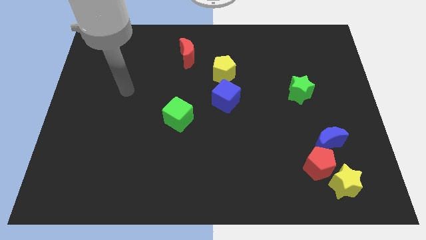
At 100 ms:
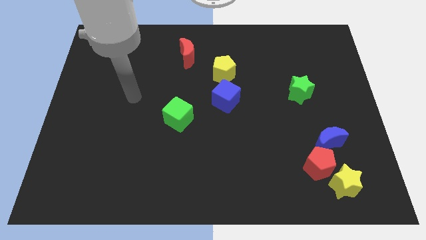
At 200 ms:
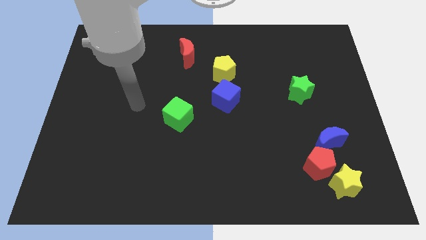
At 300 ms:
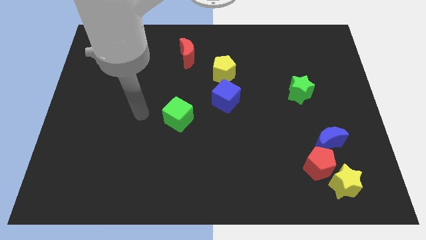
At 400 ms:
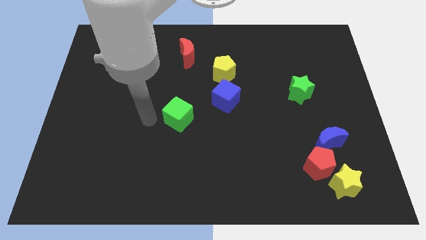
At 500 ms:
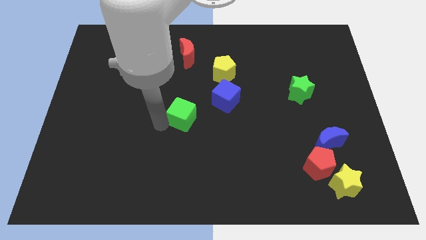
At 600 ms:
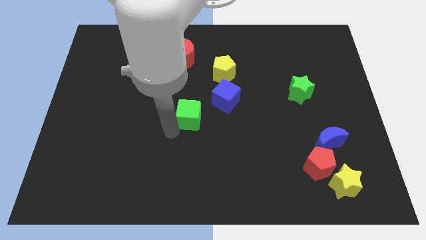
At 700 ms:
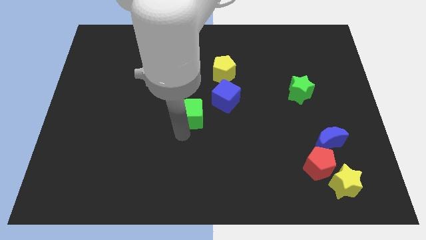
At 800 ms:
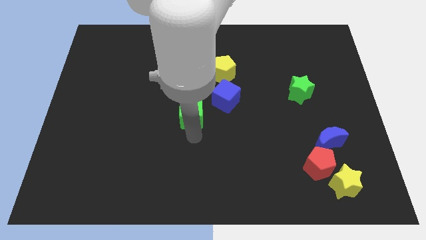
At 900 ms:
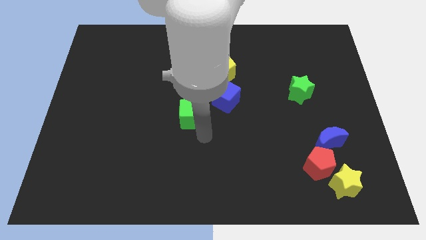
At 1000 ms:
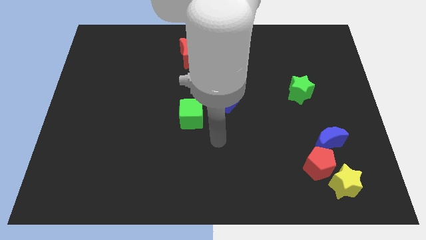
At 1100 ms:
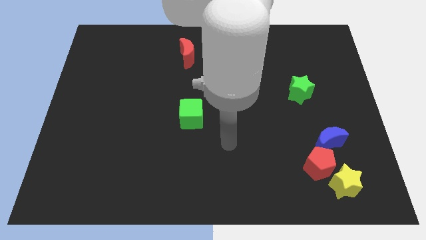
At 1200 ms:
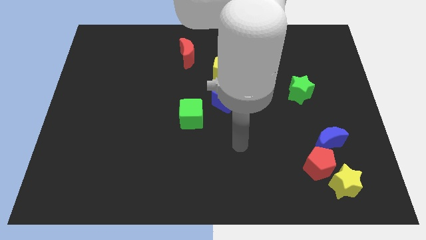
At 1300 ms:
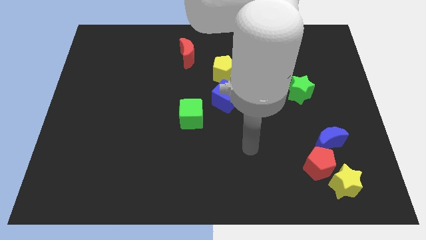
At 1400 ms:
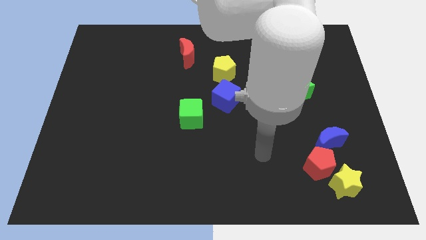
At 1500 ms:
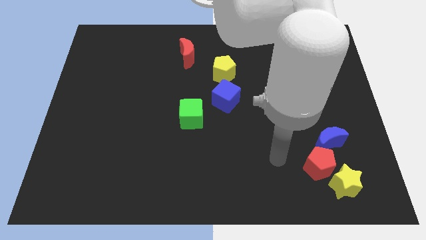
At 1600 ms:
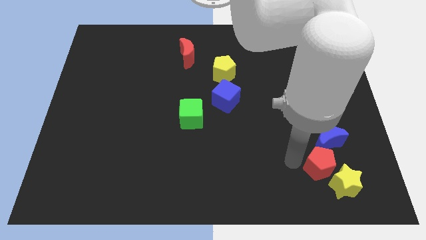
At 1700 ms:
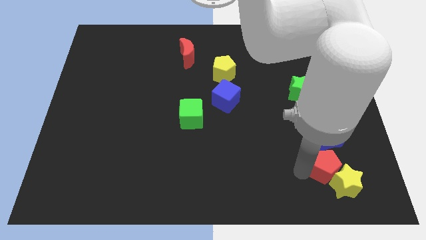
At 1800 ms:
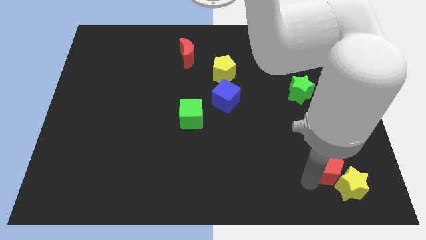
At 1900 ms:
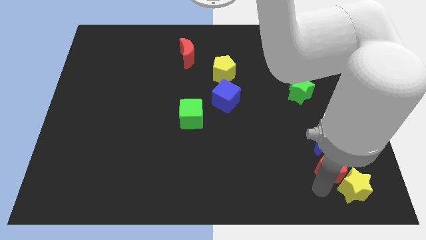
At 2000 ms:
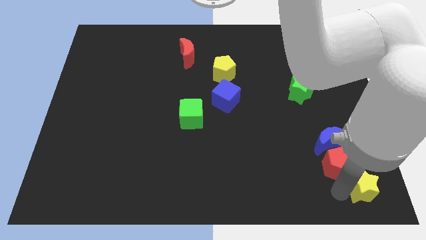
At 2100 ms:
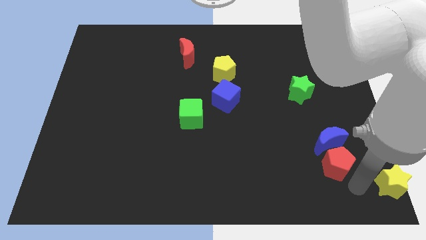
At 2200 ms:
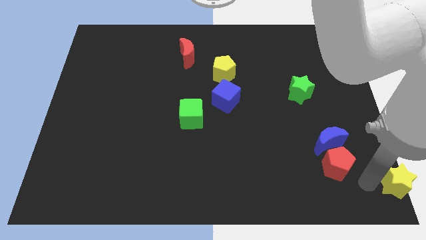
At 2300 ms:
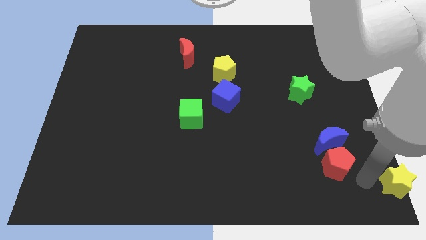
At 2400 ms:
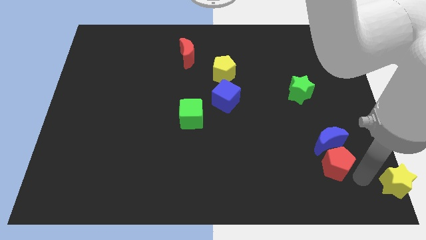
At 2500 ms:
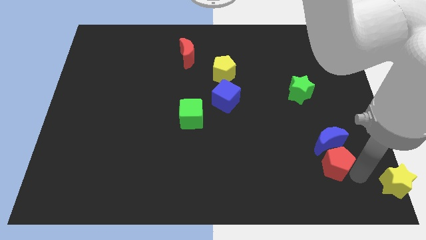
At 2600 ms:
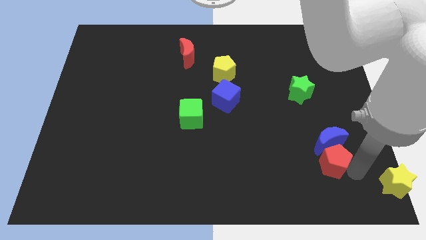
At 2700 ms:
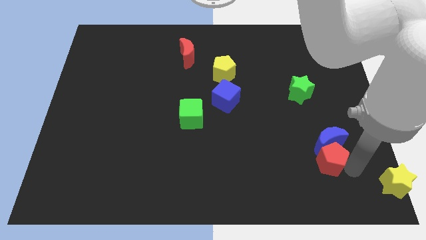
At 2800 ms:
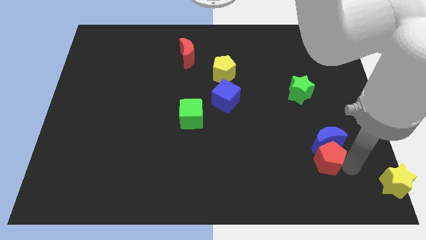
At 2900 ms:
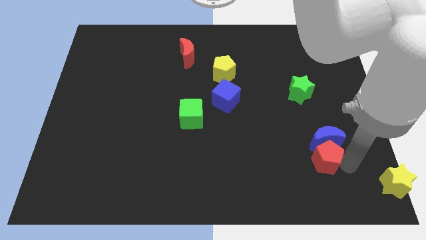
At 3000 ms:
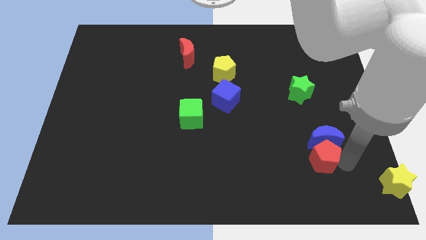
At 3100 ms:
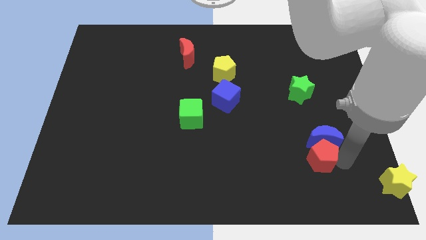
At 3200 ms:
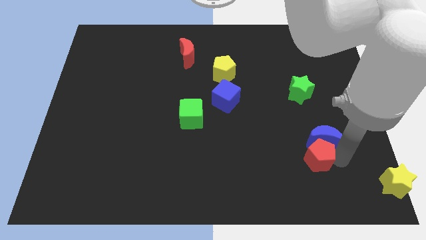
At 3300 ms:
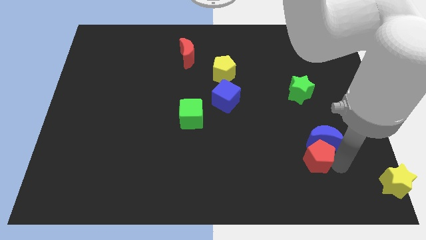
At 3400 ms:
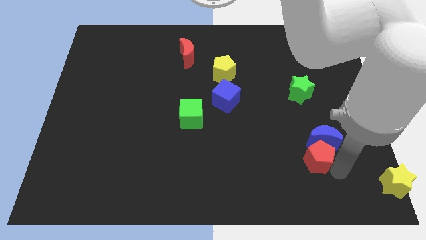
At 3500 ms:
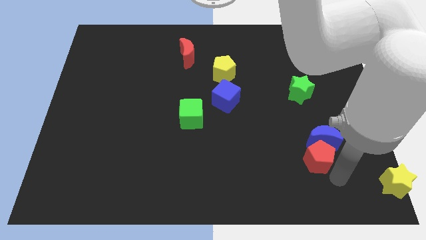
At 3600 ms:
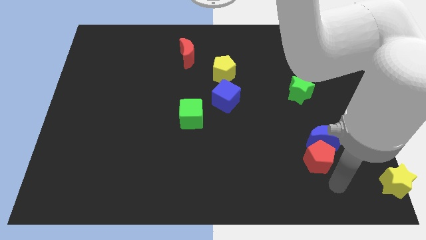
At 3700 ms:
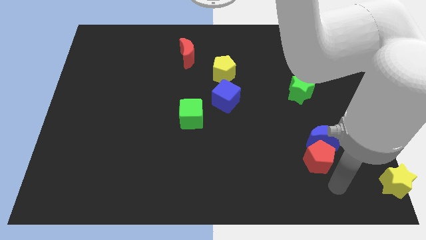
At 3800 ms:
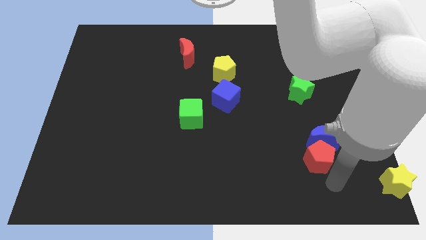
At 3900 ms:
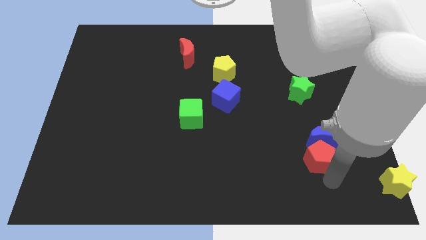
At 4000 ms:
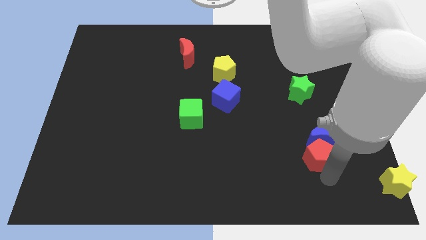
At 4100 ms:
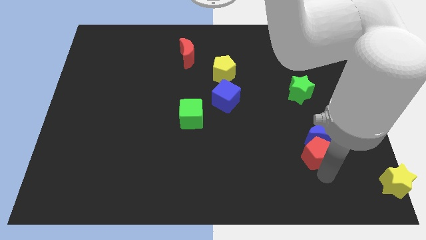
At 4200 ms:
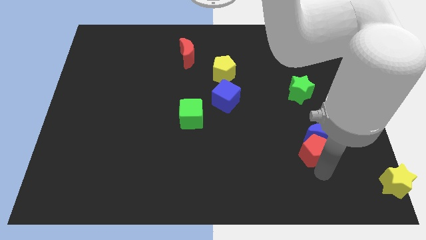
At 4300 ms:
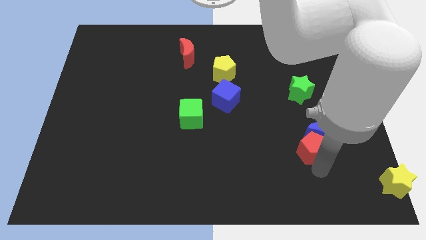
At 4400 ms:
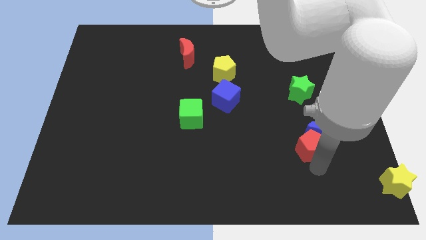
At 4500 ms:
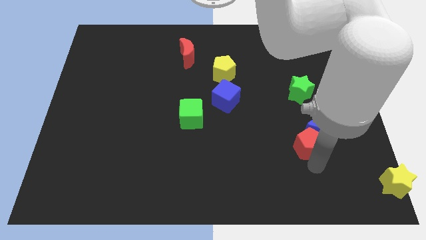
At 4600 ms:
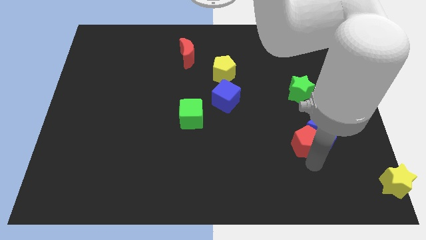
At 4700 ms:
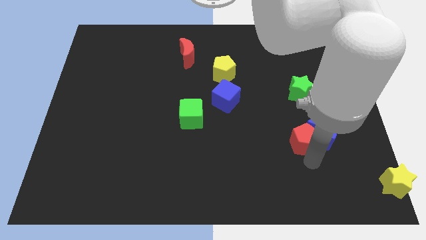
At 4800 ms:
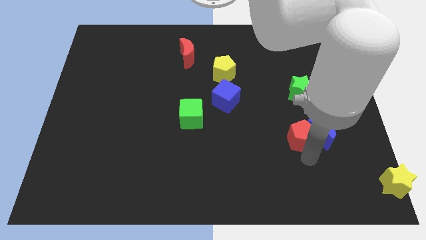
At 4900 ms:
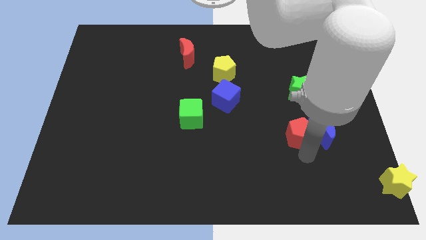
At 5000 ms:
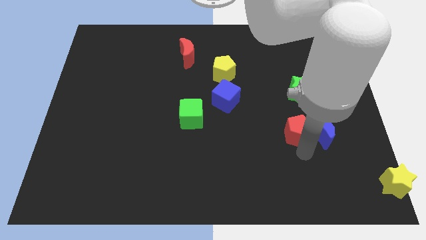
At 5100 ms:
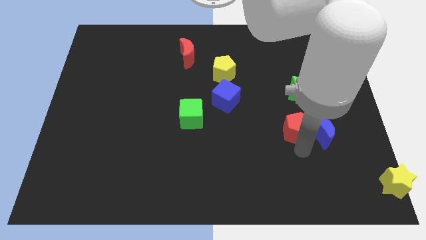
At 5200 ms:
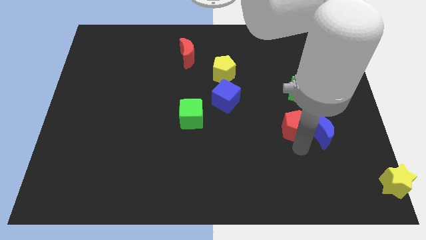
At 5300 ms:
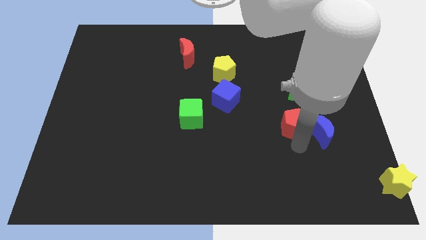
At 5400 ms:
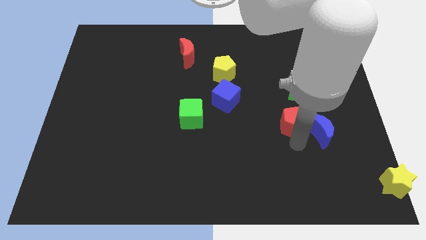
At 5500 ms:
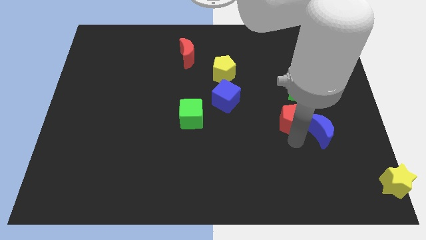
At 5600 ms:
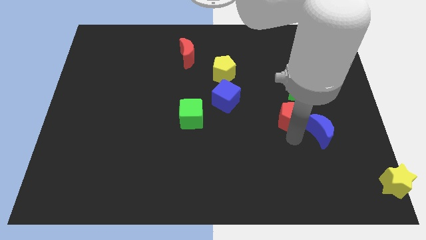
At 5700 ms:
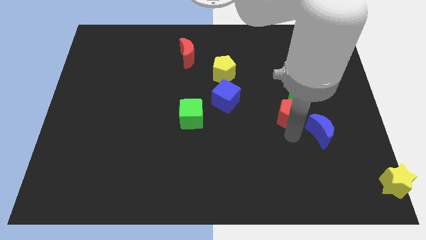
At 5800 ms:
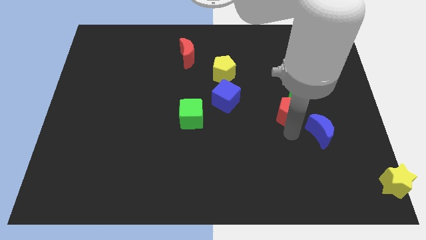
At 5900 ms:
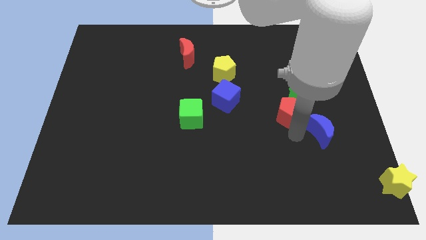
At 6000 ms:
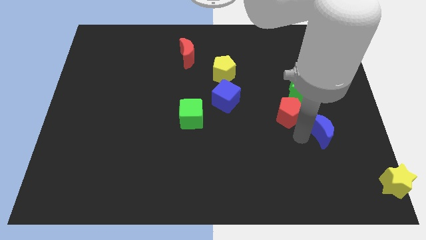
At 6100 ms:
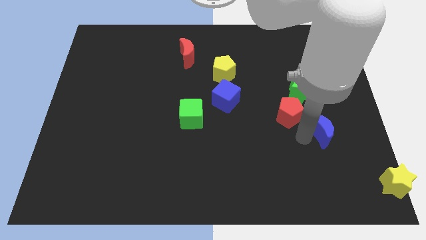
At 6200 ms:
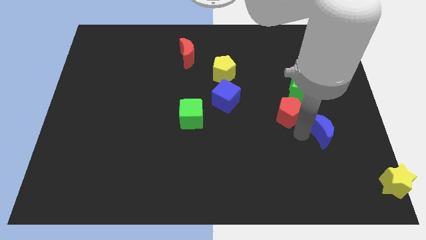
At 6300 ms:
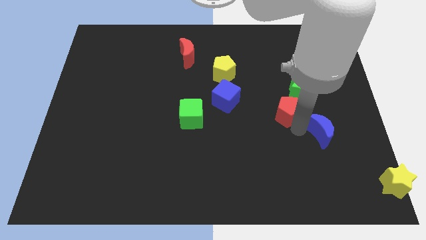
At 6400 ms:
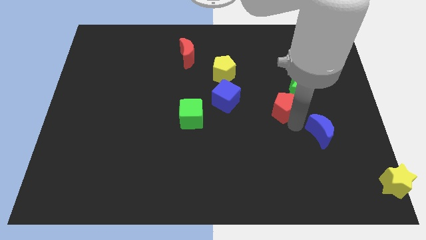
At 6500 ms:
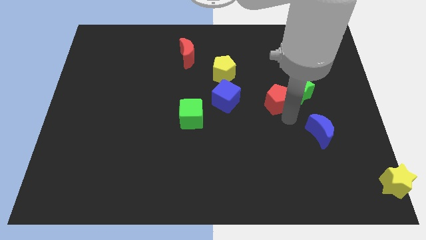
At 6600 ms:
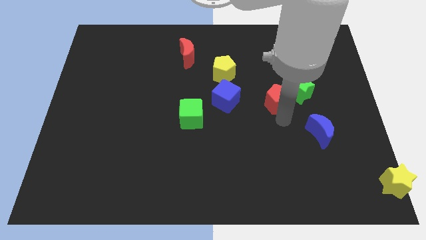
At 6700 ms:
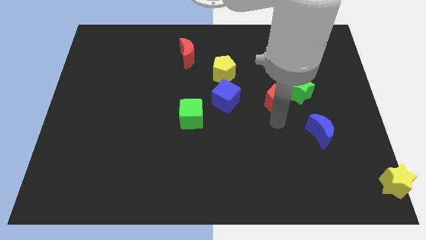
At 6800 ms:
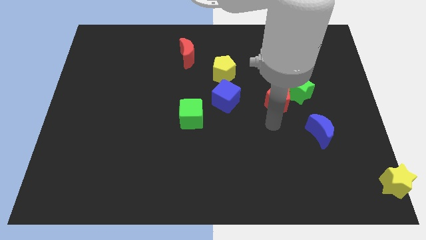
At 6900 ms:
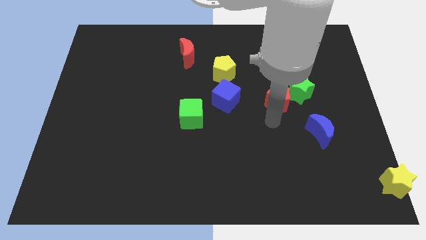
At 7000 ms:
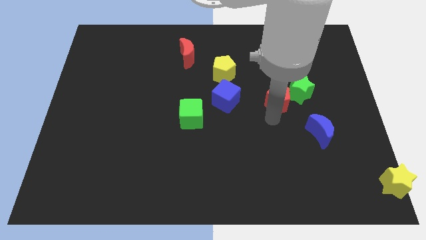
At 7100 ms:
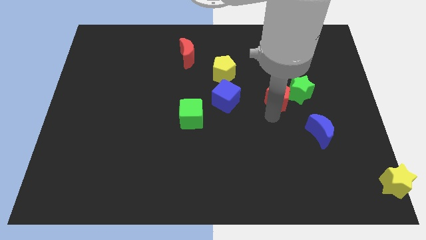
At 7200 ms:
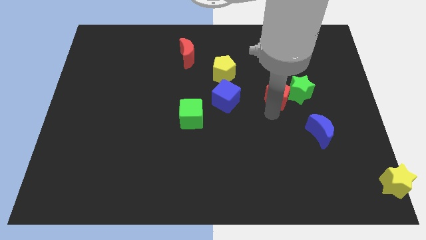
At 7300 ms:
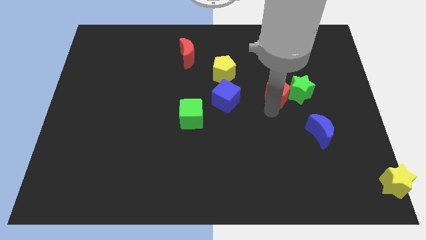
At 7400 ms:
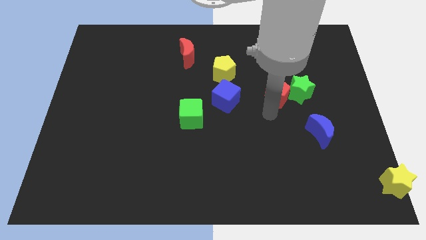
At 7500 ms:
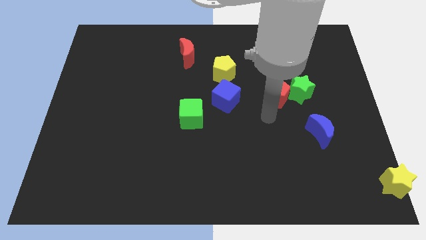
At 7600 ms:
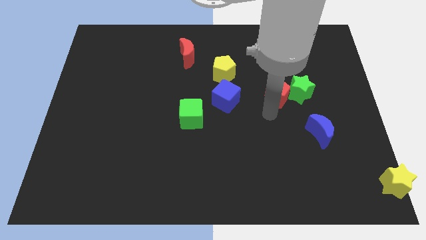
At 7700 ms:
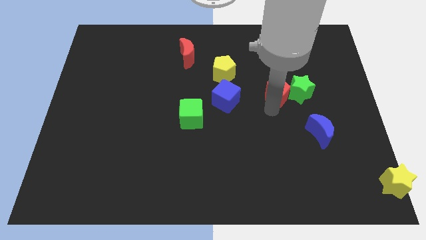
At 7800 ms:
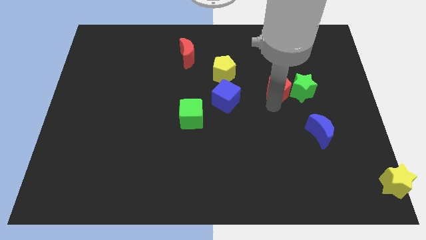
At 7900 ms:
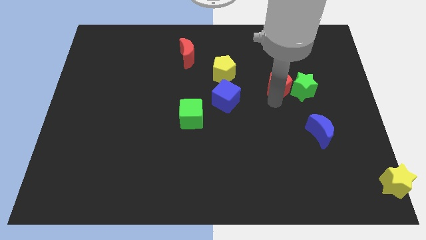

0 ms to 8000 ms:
move the red pentagon up

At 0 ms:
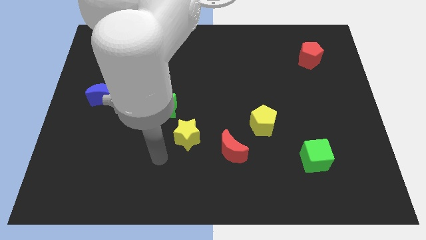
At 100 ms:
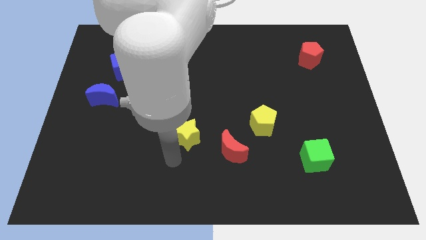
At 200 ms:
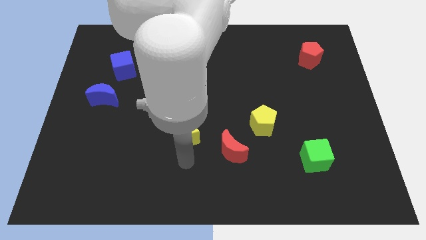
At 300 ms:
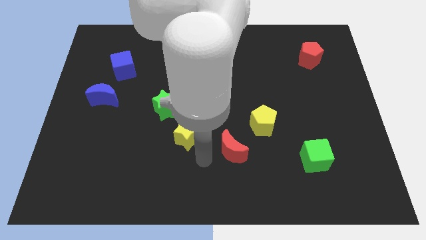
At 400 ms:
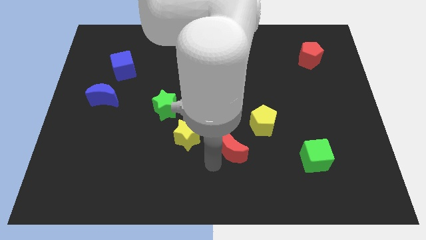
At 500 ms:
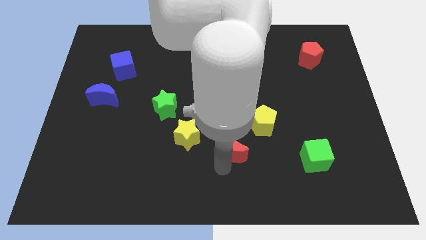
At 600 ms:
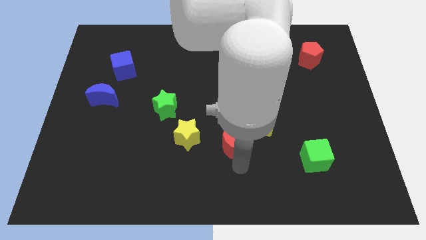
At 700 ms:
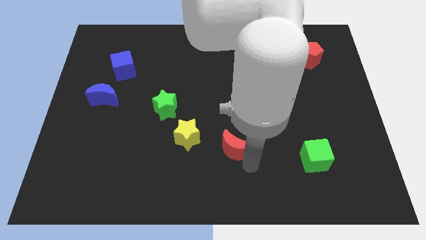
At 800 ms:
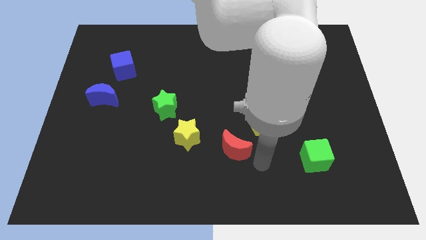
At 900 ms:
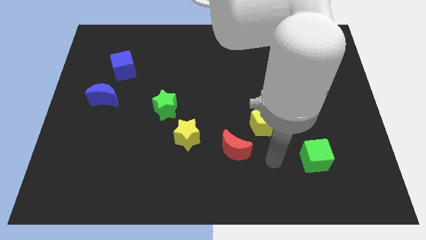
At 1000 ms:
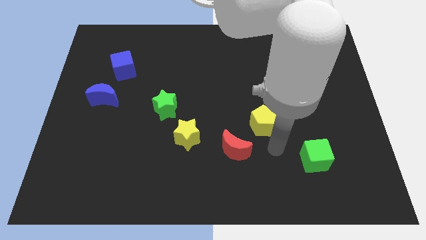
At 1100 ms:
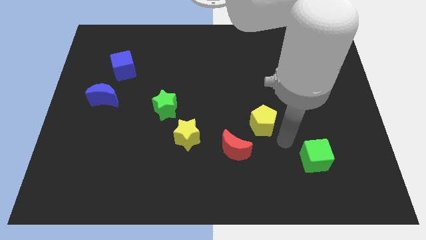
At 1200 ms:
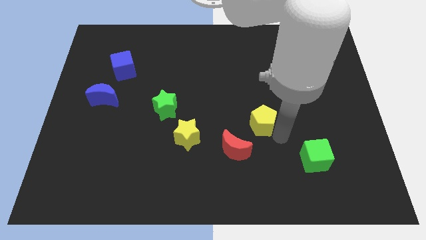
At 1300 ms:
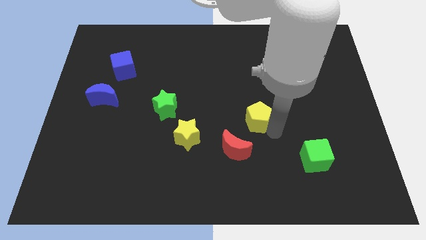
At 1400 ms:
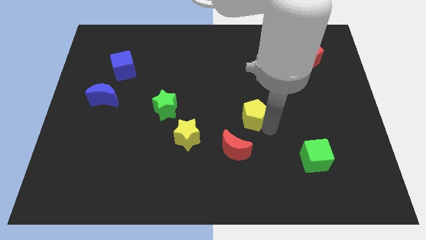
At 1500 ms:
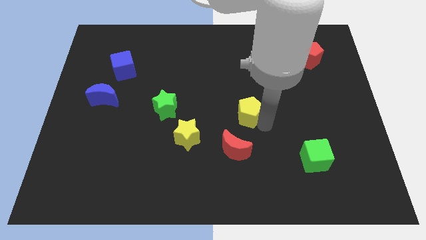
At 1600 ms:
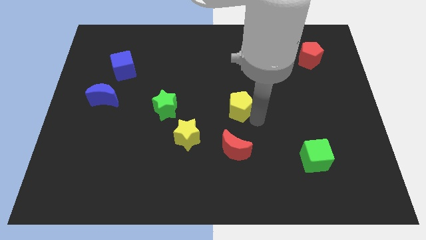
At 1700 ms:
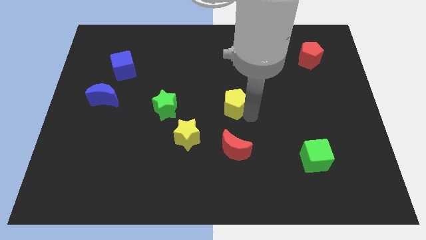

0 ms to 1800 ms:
slide the yellow pentagon a little diagonally up and to the left
